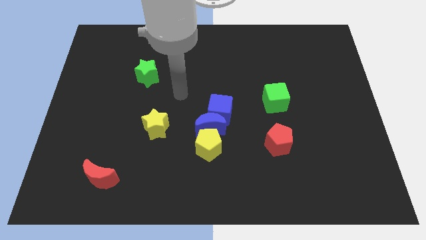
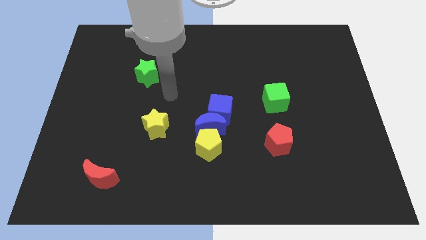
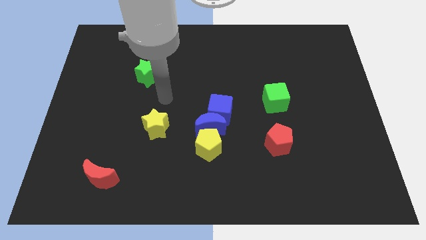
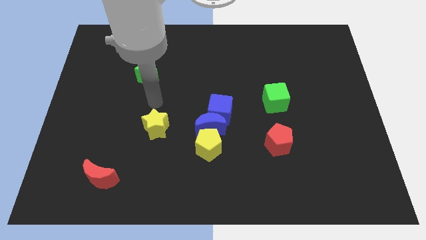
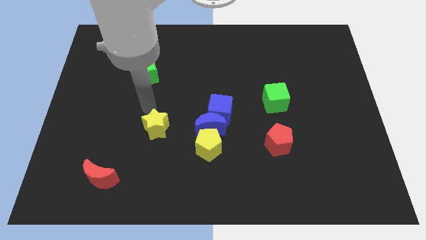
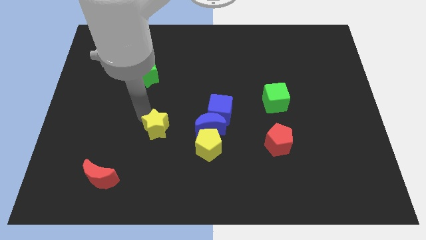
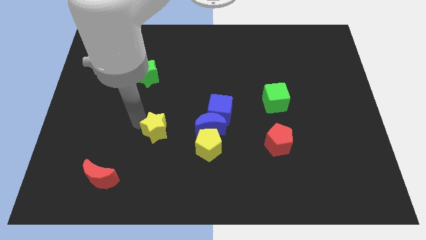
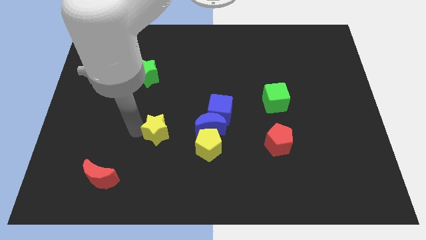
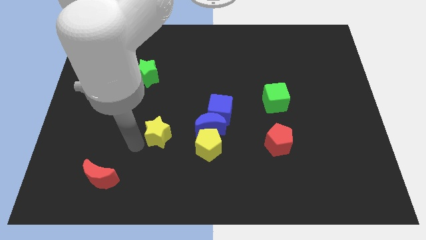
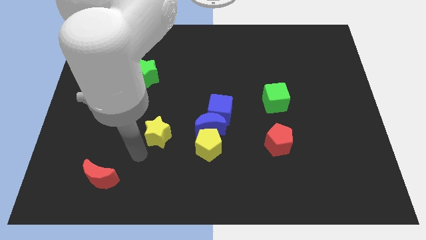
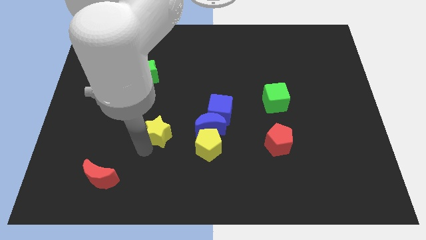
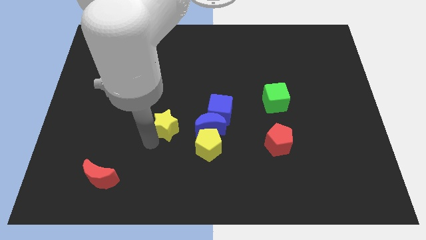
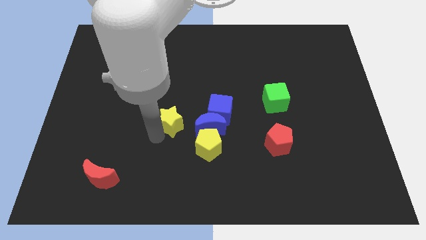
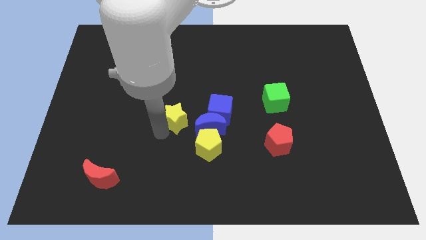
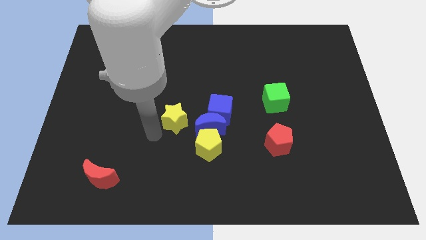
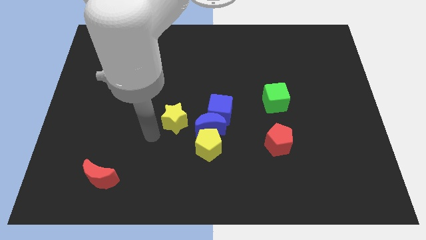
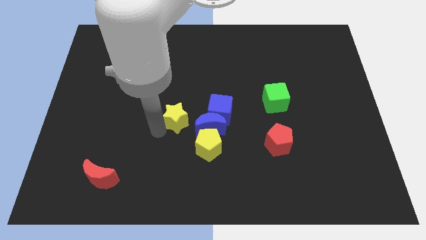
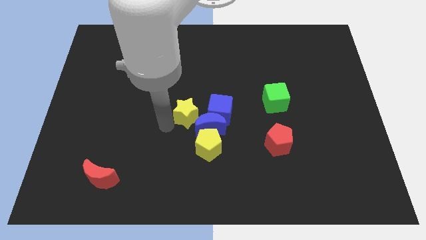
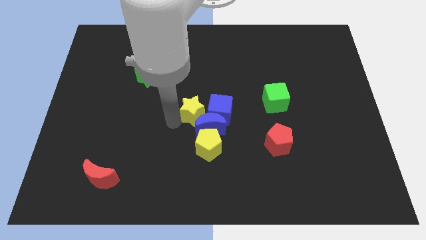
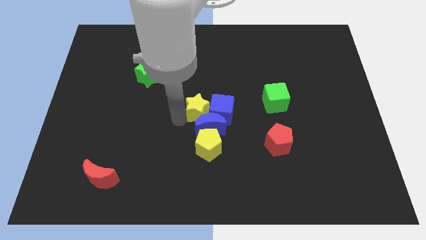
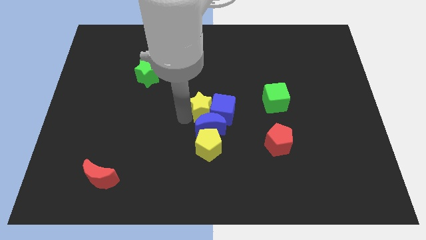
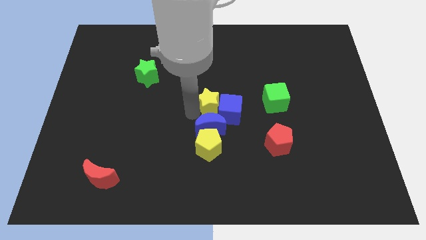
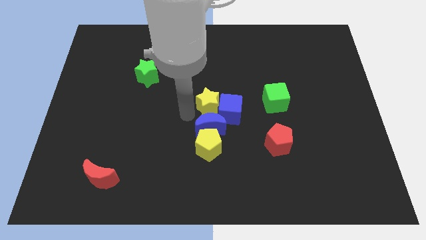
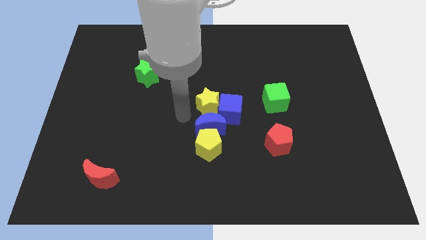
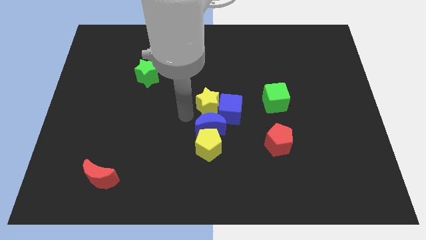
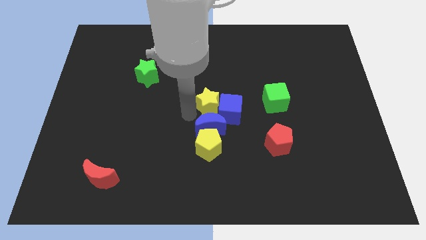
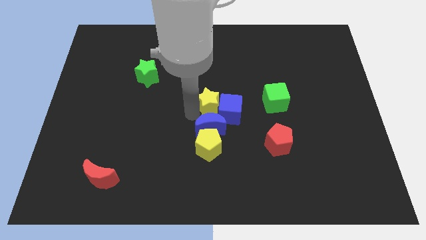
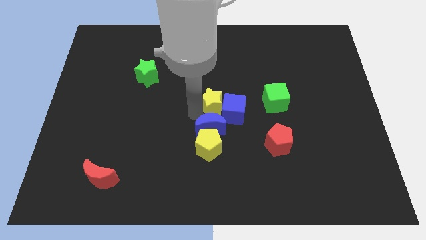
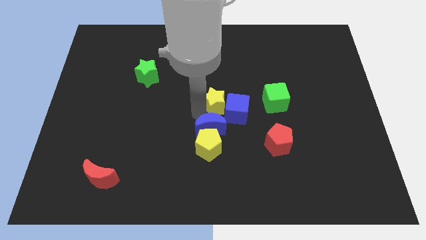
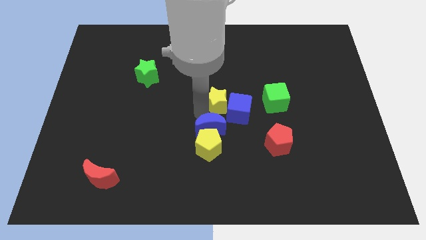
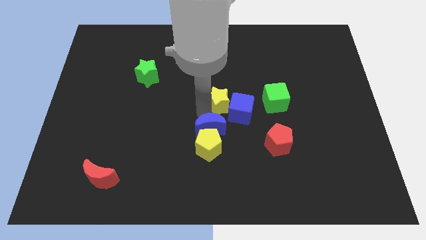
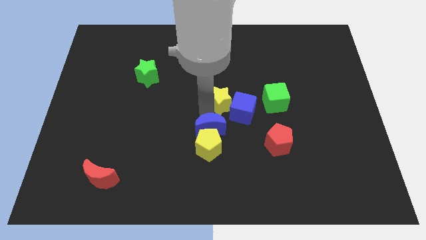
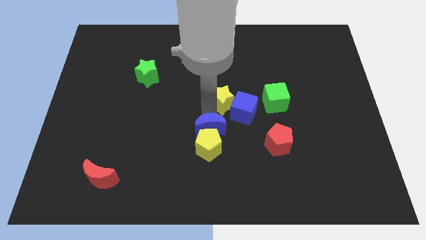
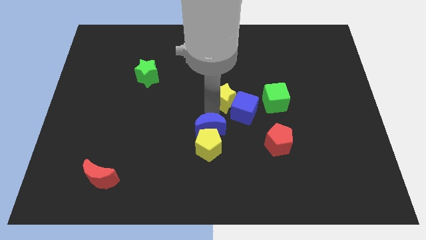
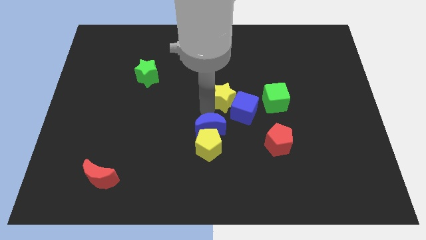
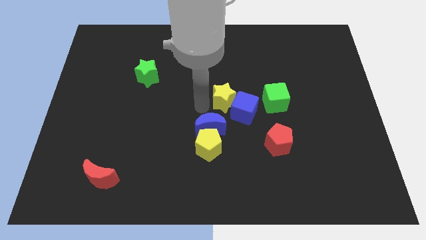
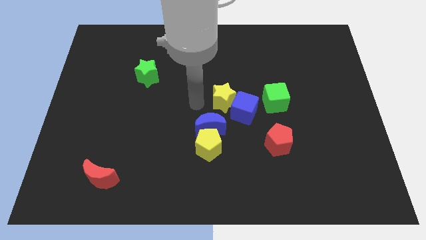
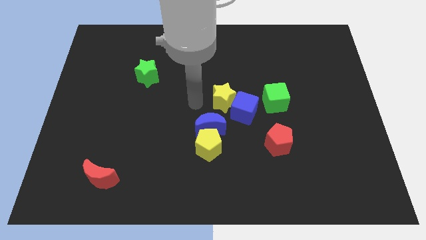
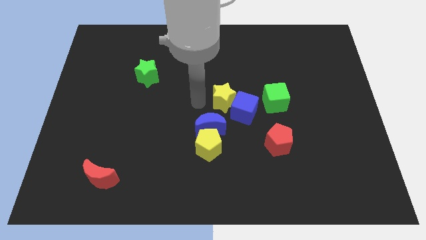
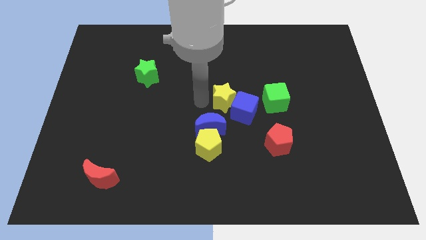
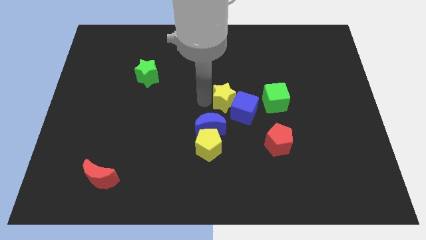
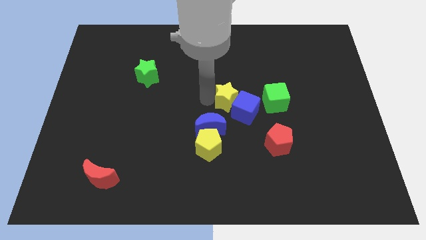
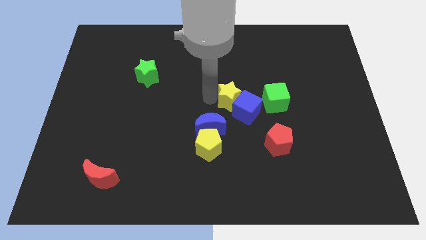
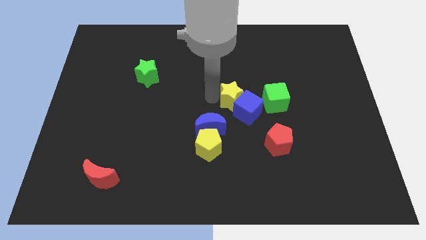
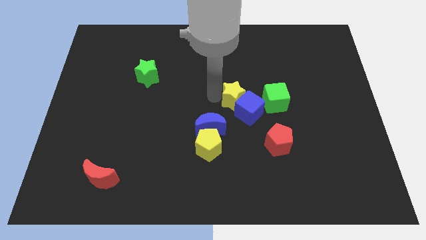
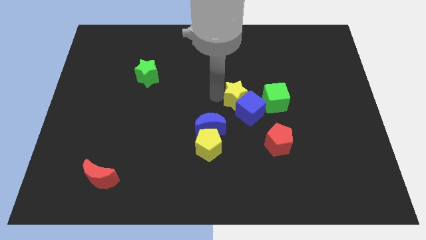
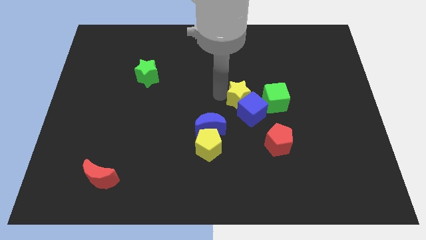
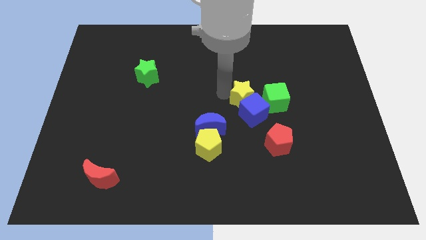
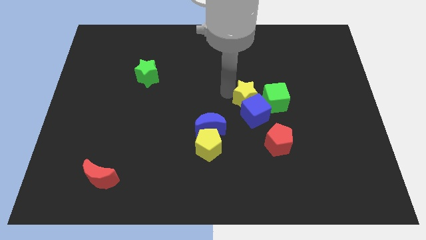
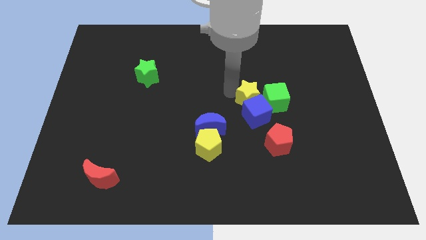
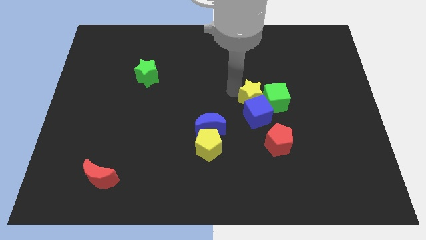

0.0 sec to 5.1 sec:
move the yellow star next to the green cube

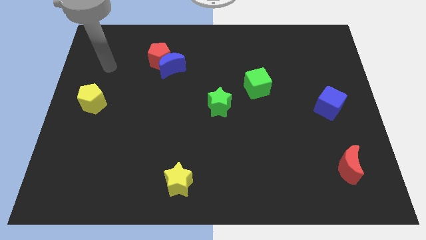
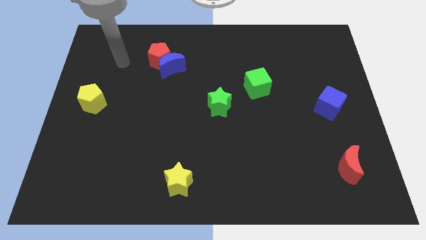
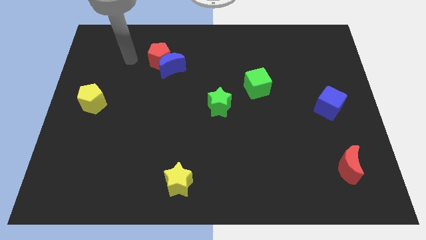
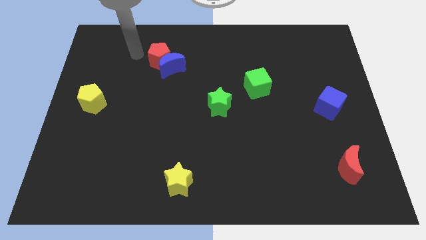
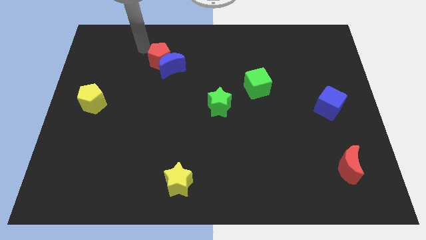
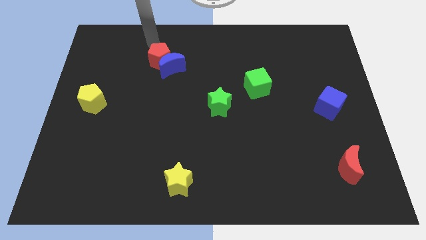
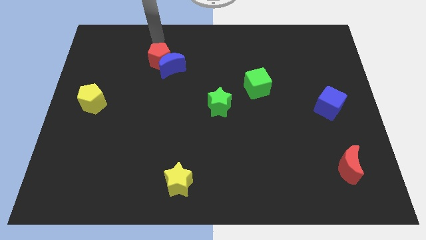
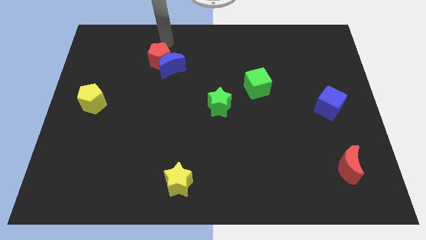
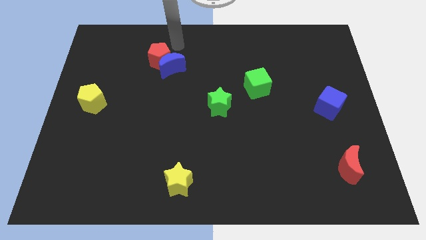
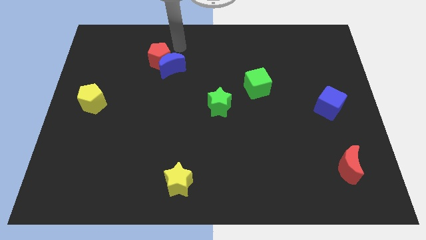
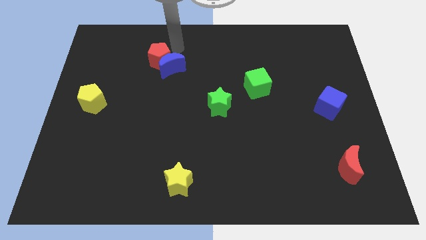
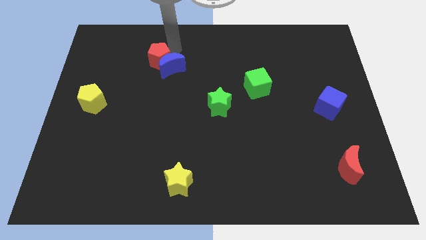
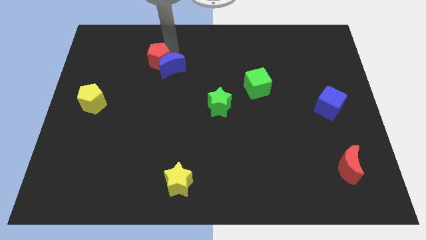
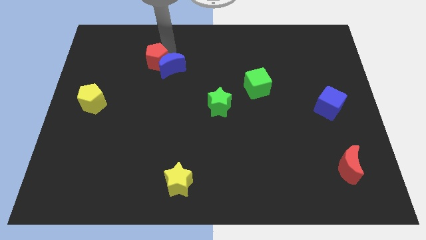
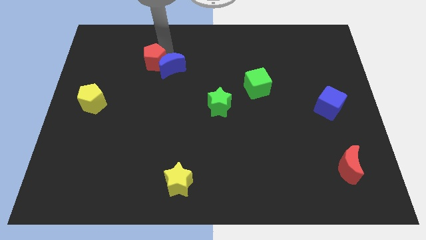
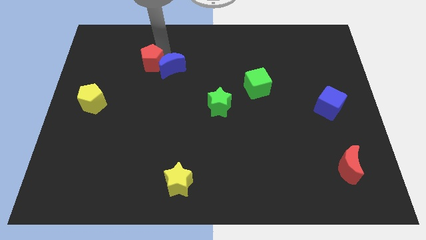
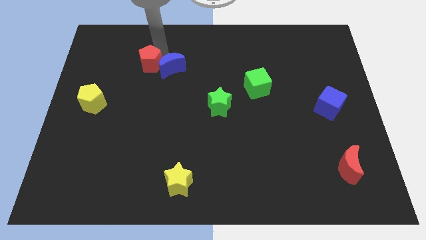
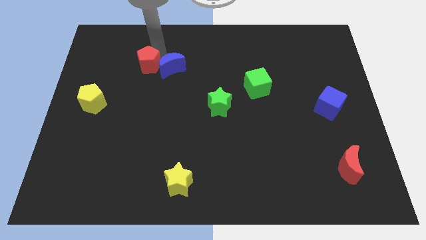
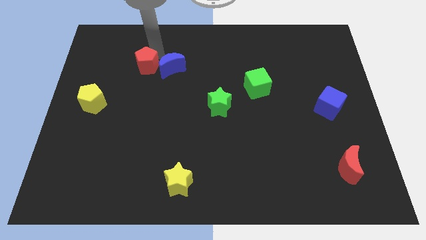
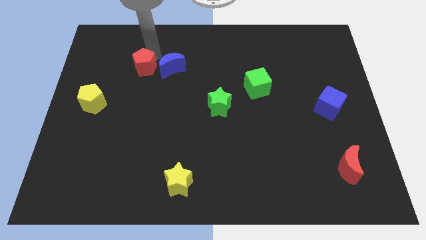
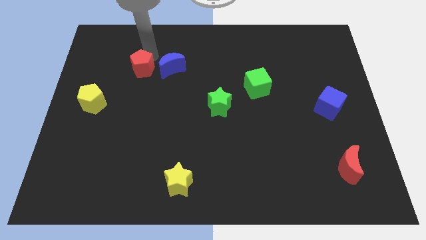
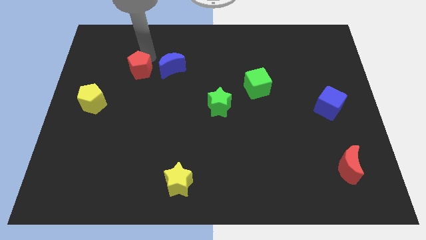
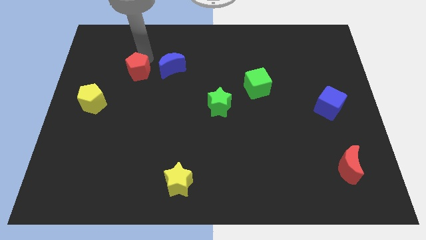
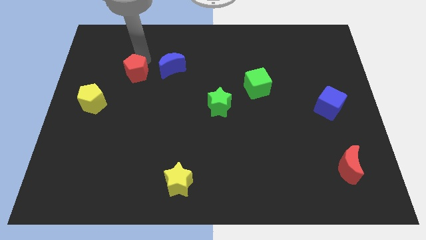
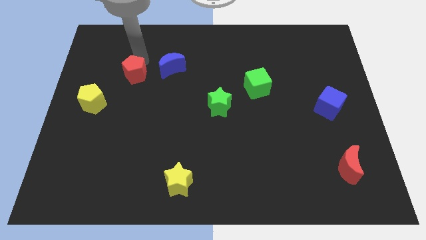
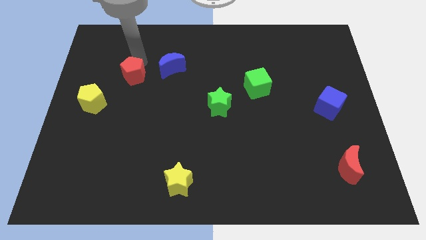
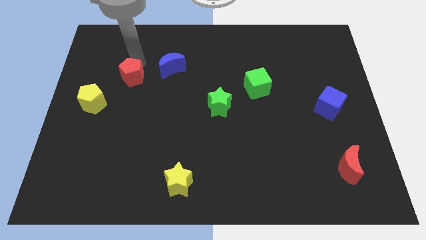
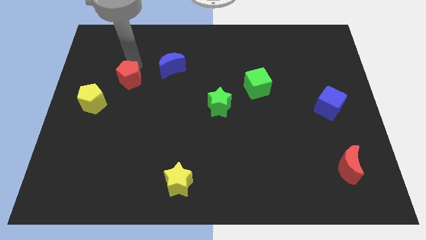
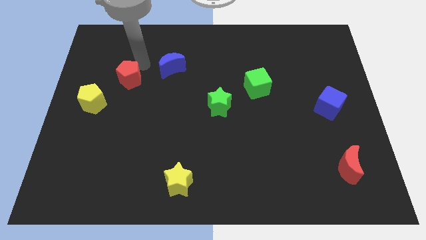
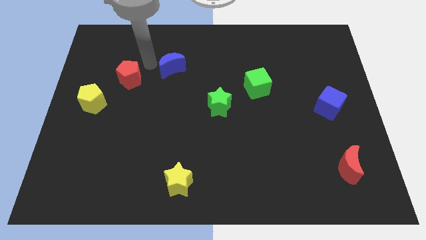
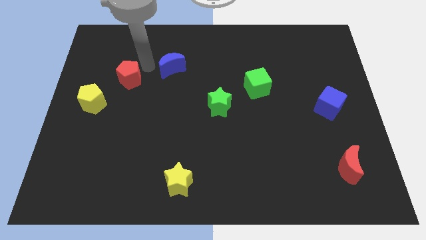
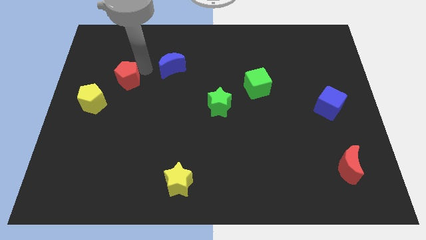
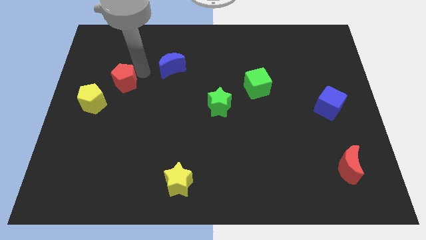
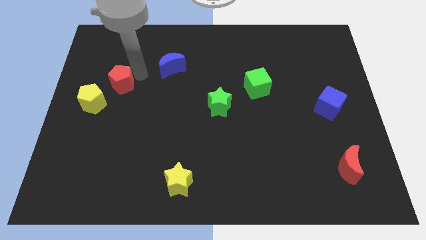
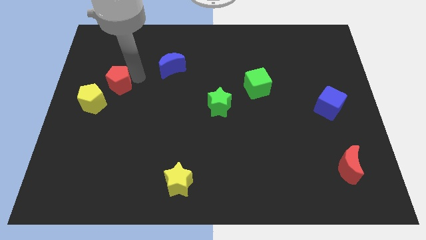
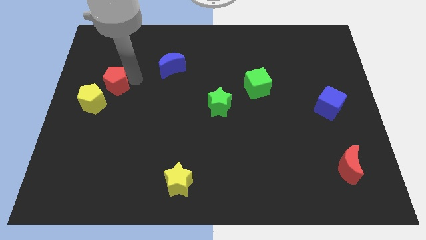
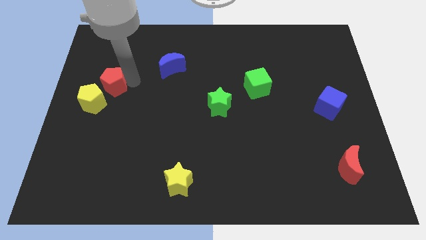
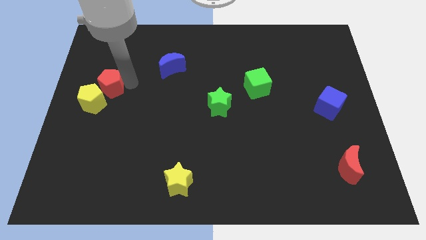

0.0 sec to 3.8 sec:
push the red pentagon next to the yellow pentagon
